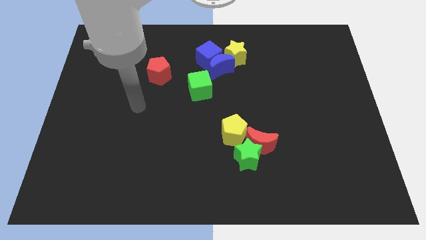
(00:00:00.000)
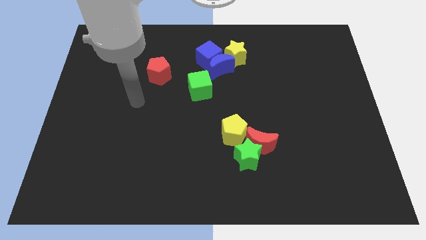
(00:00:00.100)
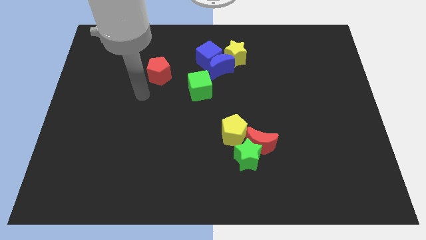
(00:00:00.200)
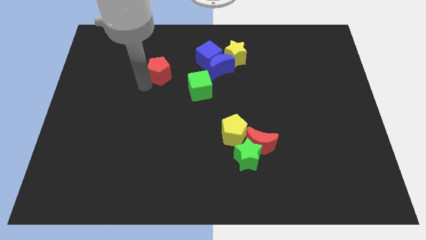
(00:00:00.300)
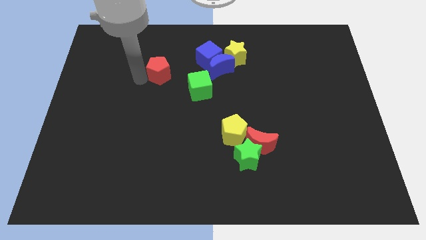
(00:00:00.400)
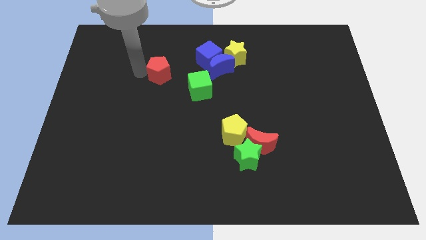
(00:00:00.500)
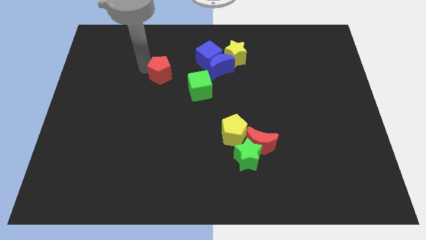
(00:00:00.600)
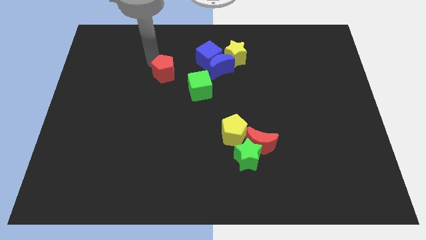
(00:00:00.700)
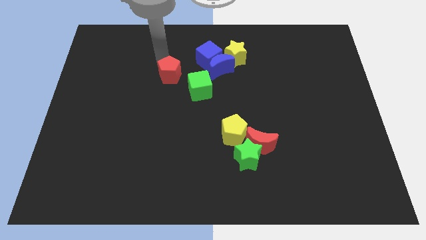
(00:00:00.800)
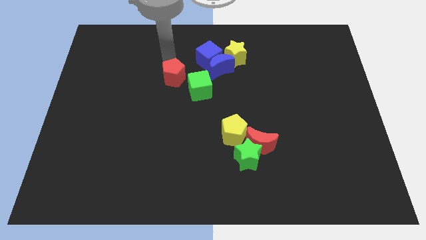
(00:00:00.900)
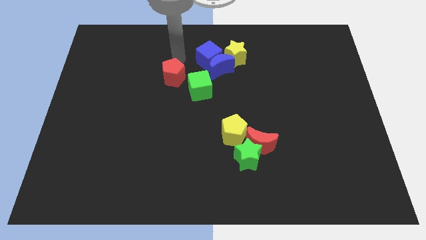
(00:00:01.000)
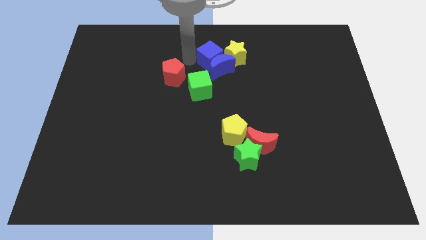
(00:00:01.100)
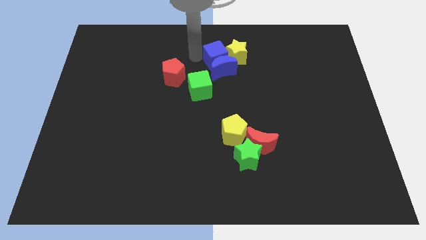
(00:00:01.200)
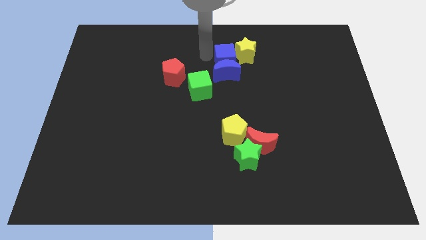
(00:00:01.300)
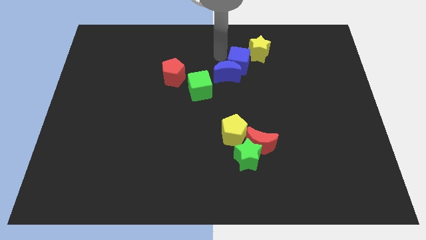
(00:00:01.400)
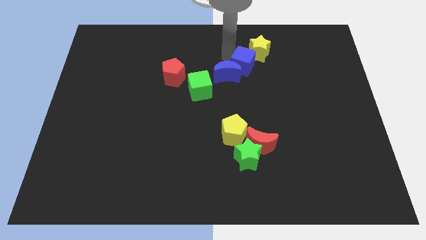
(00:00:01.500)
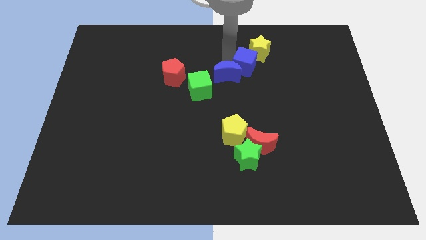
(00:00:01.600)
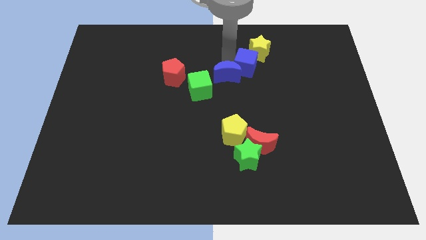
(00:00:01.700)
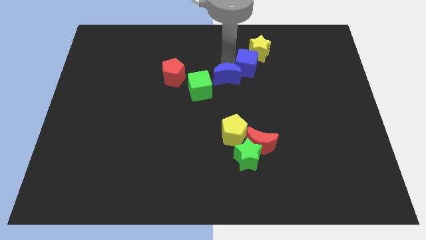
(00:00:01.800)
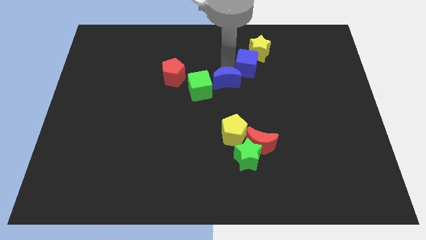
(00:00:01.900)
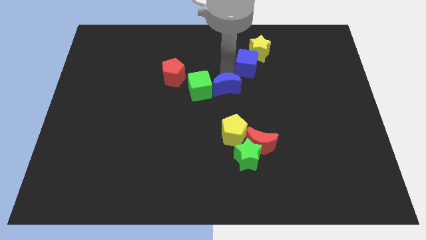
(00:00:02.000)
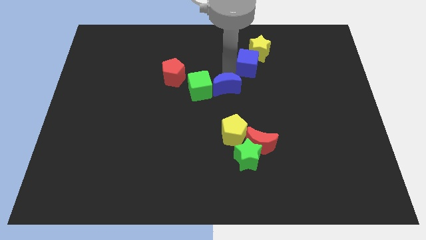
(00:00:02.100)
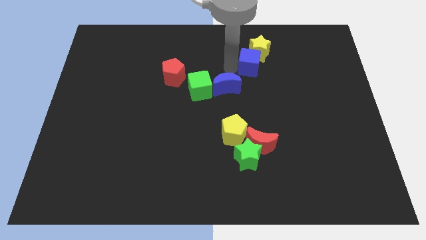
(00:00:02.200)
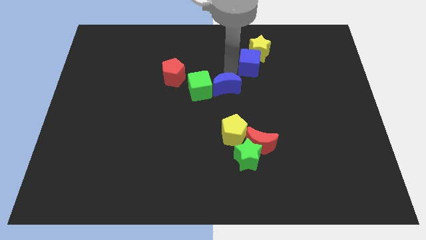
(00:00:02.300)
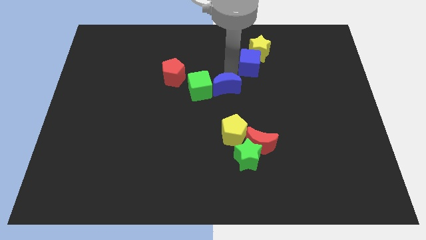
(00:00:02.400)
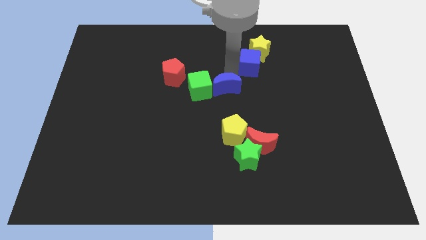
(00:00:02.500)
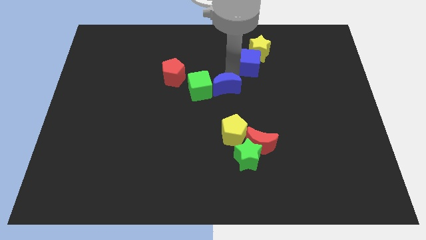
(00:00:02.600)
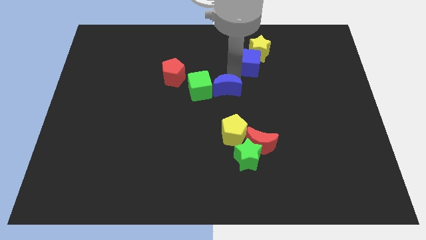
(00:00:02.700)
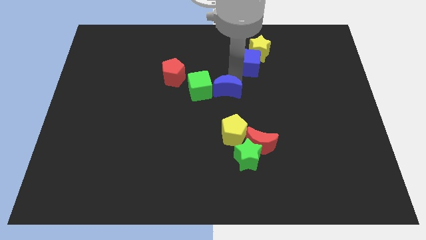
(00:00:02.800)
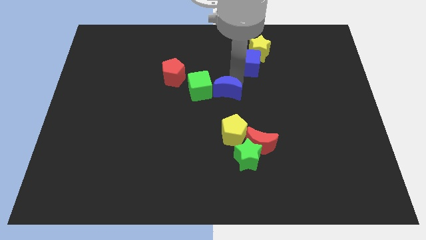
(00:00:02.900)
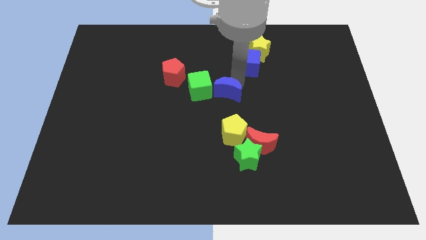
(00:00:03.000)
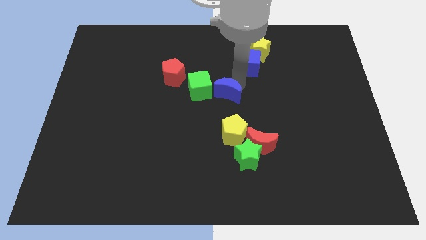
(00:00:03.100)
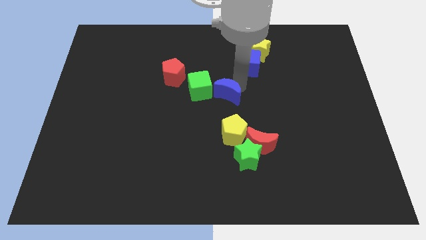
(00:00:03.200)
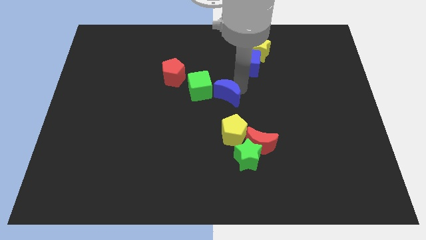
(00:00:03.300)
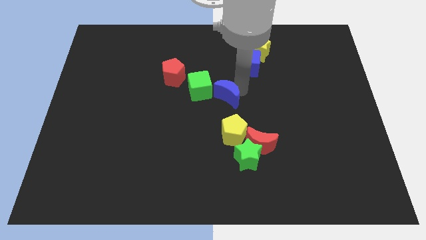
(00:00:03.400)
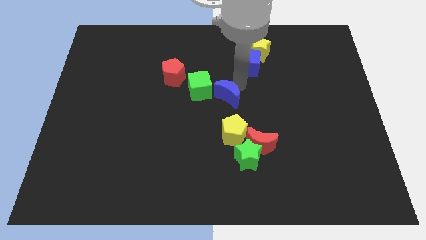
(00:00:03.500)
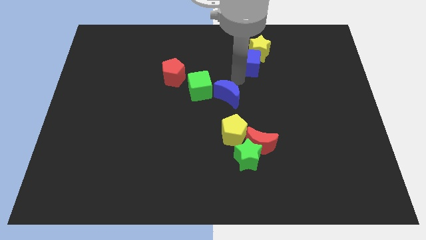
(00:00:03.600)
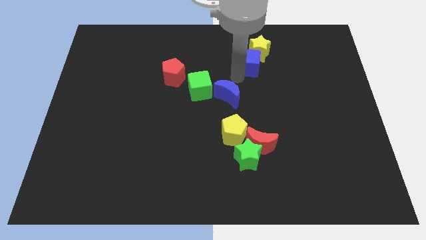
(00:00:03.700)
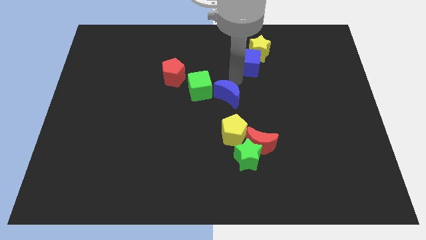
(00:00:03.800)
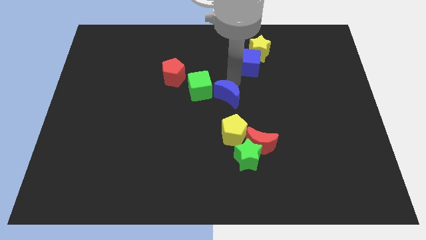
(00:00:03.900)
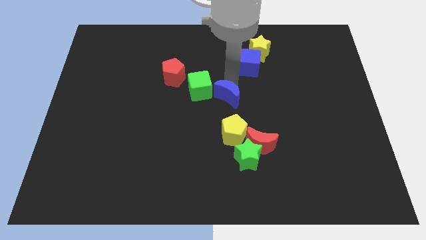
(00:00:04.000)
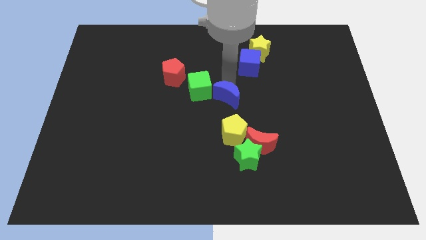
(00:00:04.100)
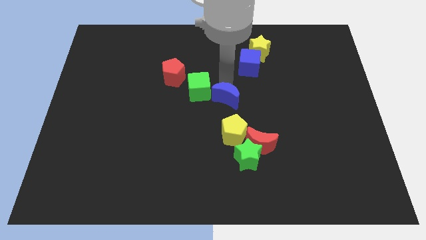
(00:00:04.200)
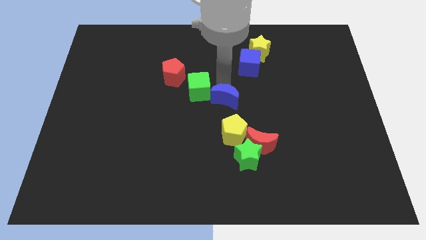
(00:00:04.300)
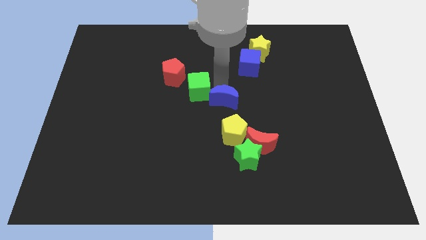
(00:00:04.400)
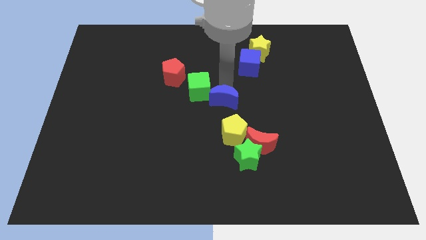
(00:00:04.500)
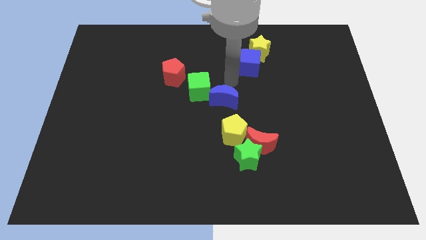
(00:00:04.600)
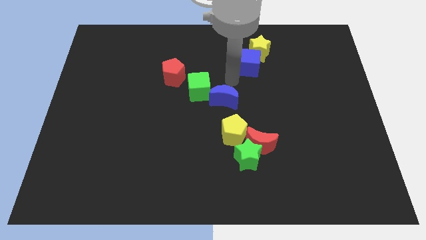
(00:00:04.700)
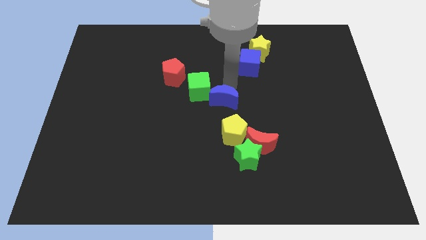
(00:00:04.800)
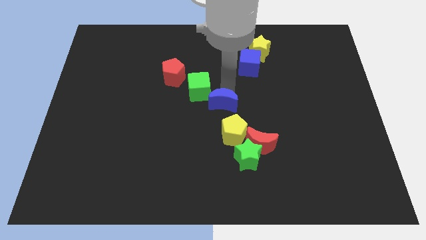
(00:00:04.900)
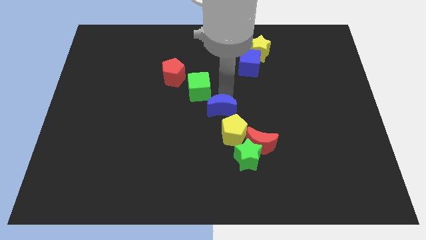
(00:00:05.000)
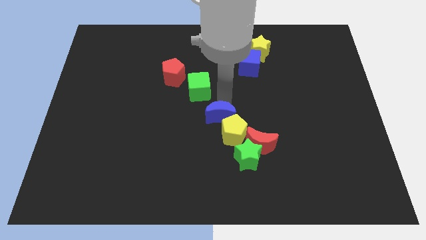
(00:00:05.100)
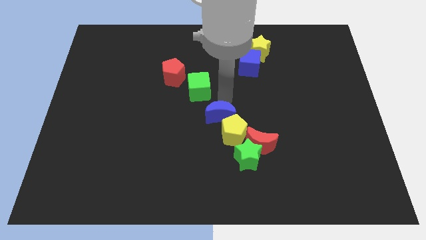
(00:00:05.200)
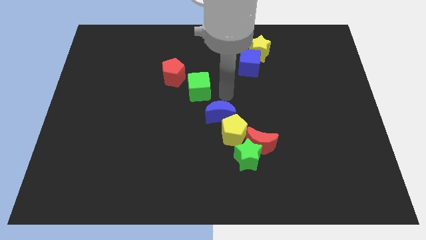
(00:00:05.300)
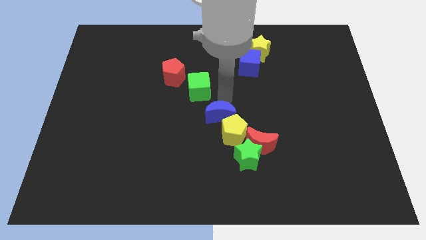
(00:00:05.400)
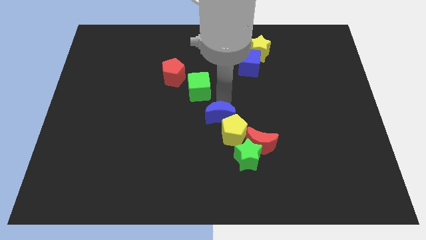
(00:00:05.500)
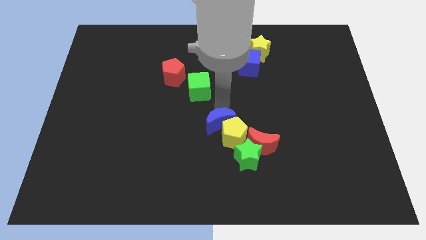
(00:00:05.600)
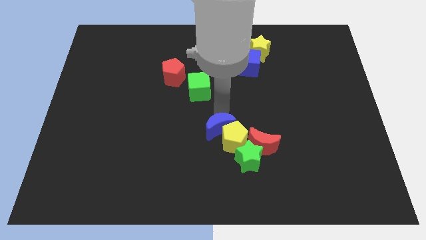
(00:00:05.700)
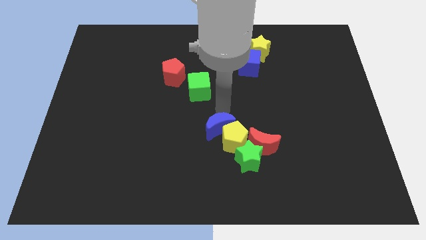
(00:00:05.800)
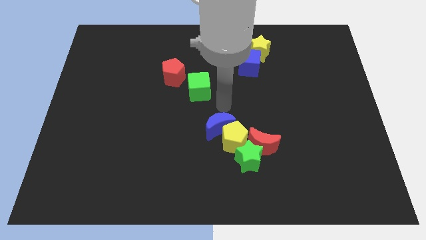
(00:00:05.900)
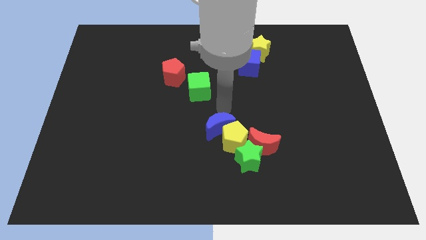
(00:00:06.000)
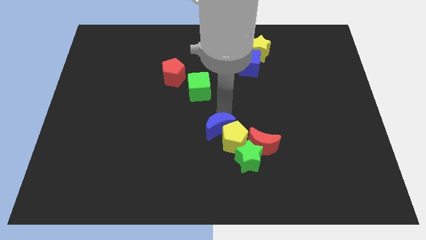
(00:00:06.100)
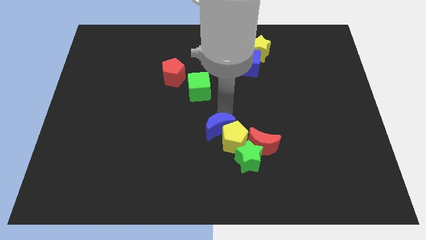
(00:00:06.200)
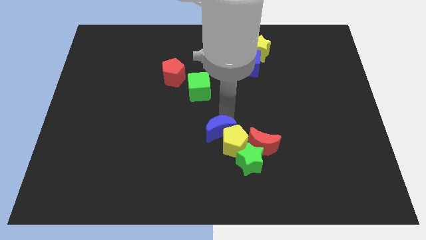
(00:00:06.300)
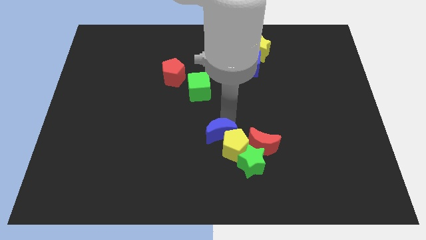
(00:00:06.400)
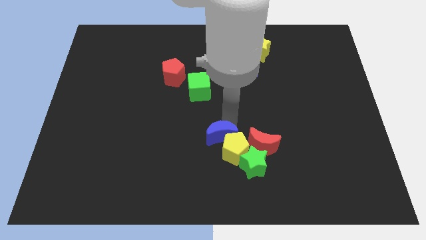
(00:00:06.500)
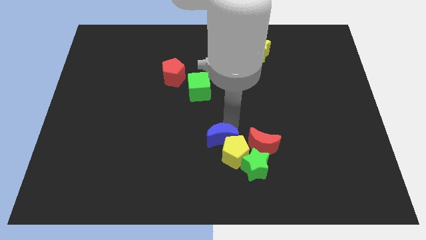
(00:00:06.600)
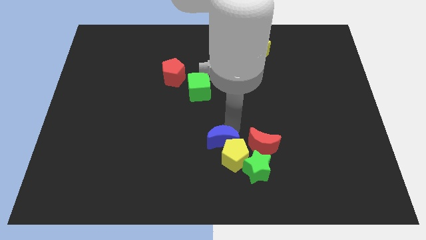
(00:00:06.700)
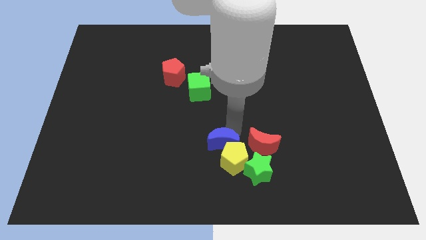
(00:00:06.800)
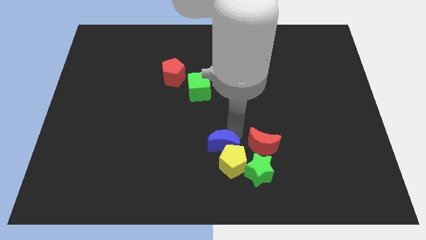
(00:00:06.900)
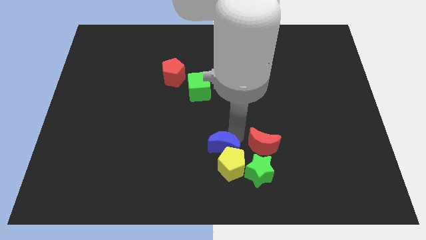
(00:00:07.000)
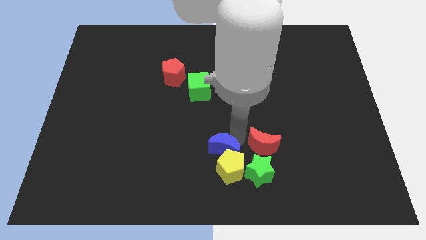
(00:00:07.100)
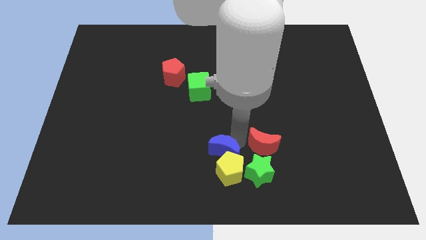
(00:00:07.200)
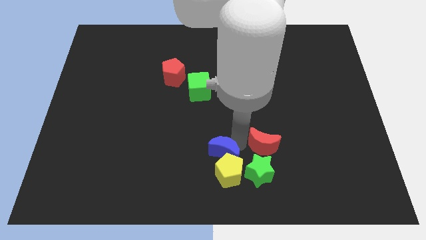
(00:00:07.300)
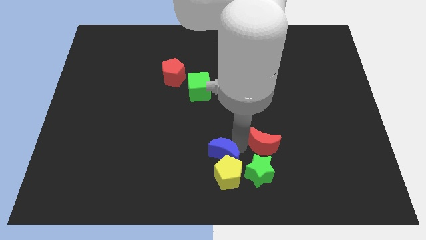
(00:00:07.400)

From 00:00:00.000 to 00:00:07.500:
move the blue moon to the bottom side
